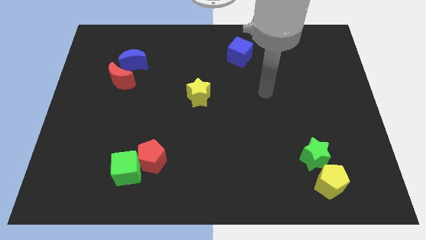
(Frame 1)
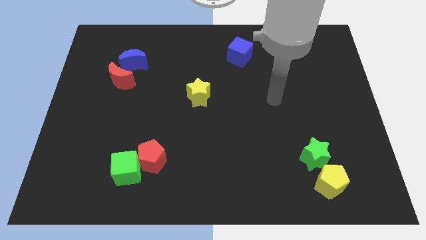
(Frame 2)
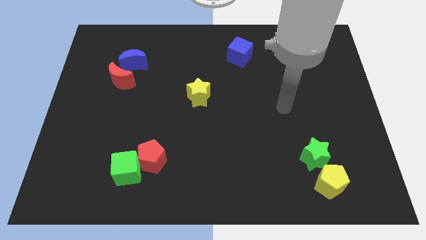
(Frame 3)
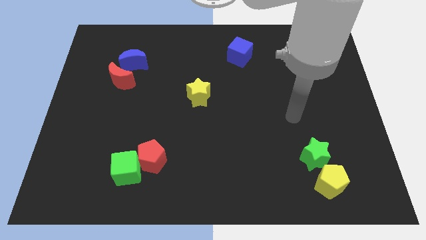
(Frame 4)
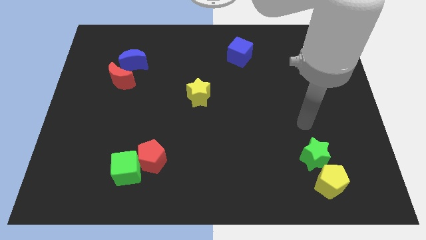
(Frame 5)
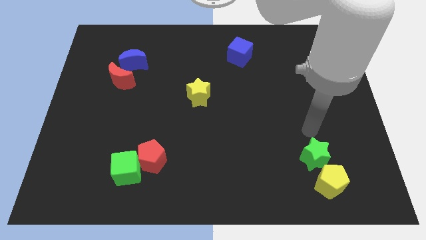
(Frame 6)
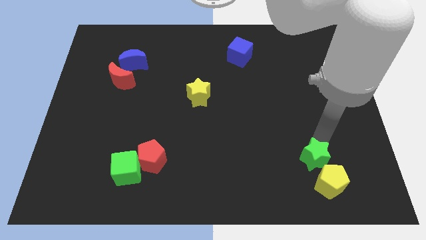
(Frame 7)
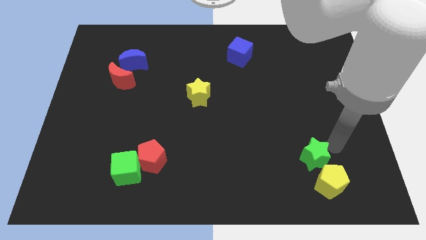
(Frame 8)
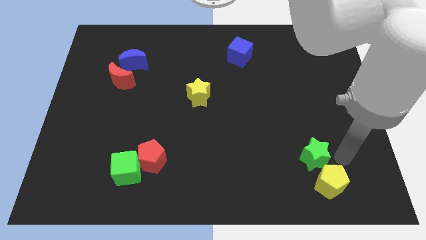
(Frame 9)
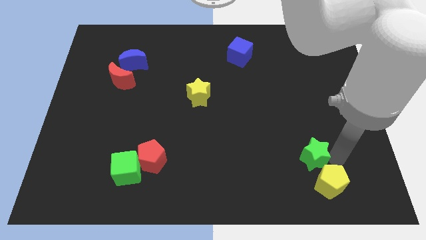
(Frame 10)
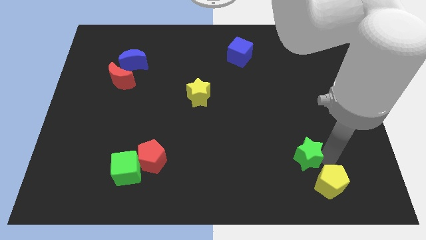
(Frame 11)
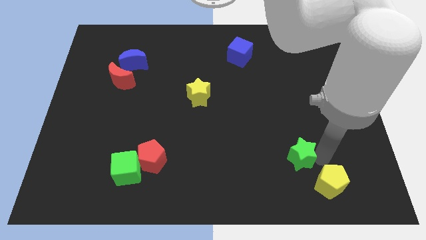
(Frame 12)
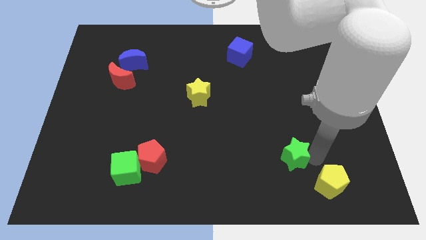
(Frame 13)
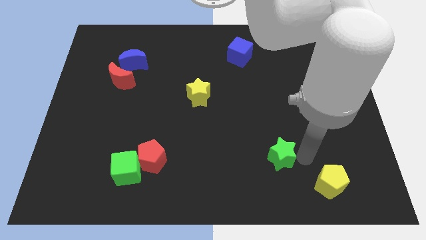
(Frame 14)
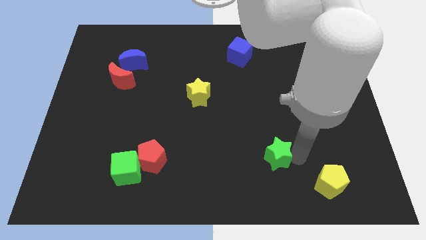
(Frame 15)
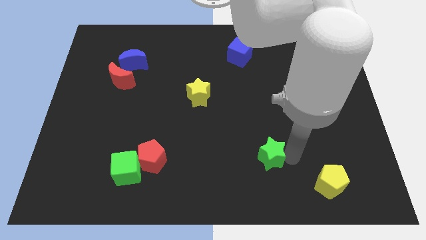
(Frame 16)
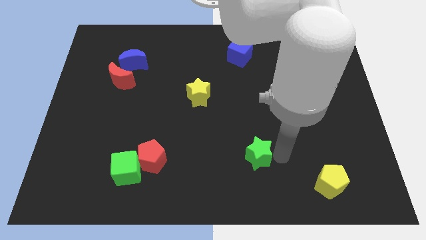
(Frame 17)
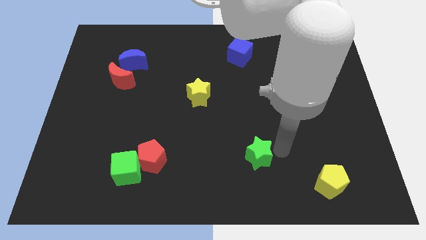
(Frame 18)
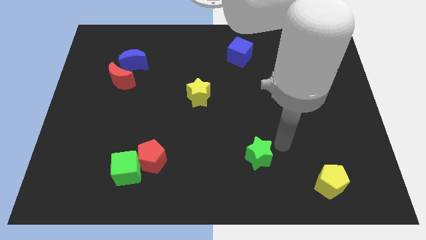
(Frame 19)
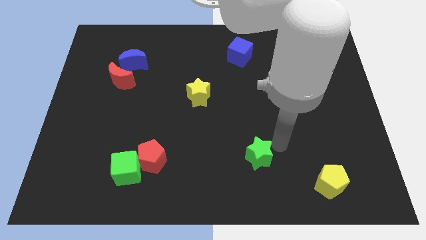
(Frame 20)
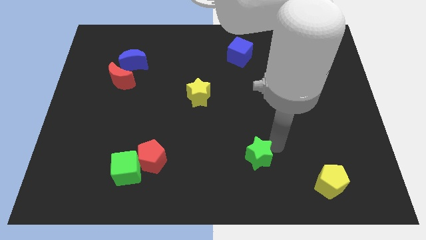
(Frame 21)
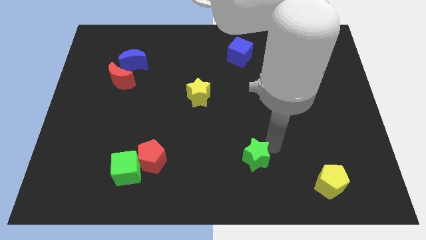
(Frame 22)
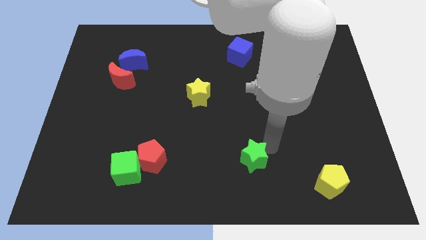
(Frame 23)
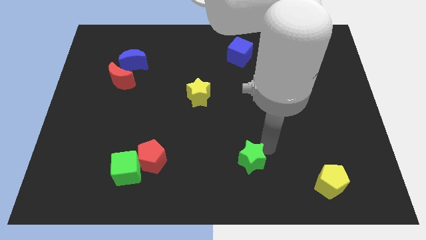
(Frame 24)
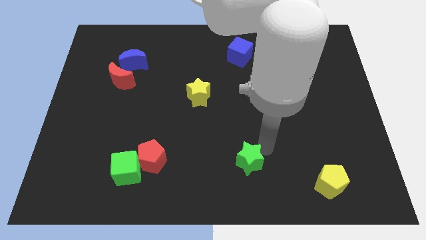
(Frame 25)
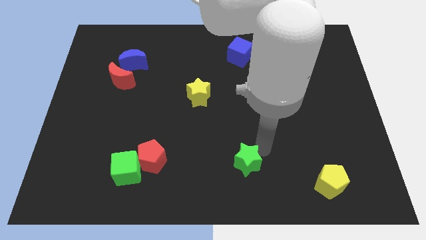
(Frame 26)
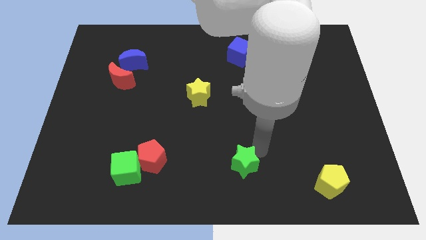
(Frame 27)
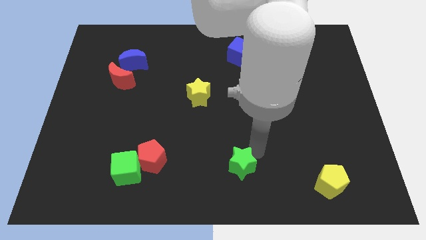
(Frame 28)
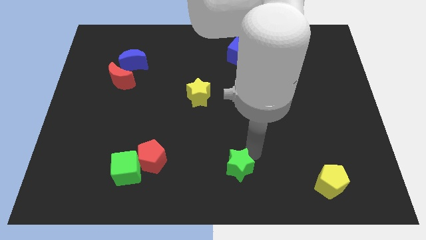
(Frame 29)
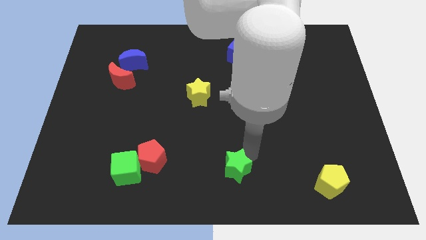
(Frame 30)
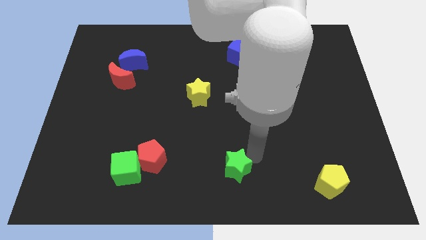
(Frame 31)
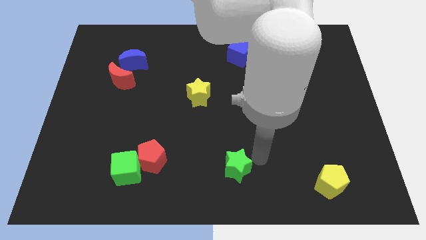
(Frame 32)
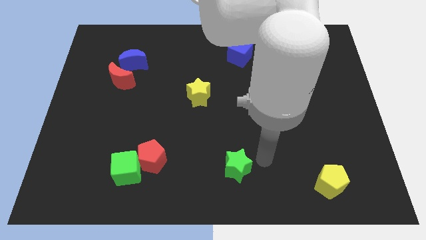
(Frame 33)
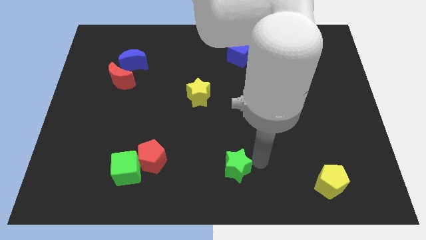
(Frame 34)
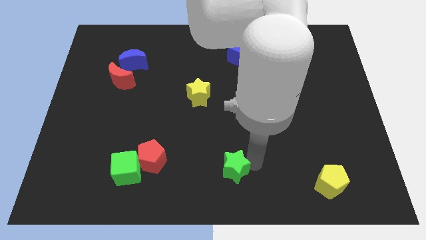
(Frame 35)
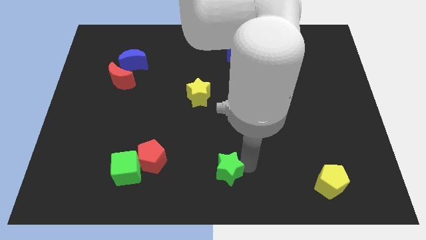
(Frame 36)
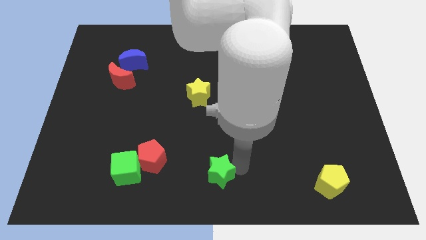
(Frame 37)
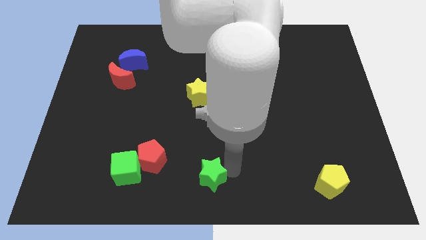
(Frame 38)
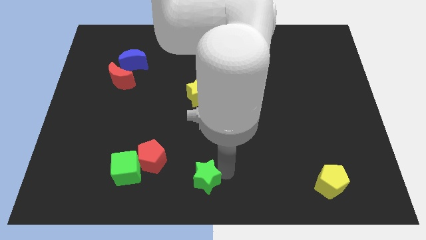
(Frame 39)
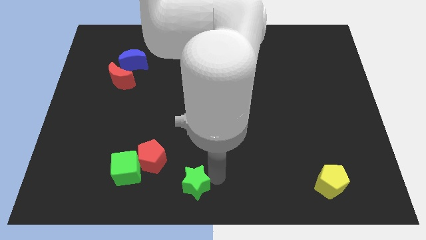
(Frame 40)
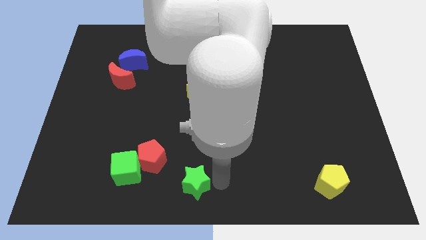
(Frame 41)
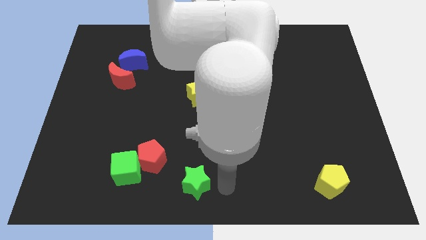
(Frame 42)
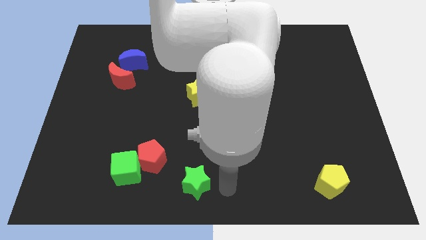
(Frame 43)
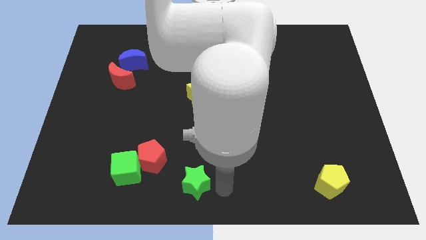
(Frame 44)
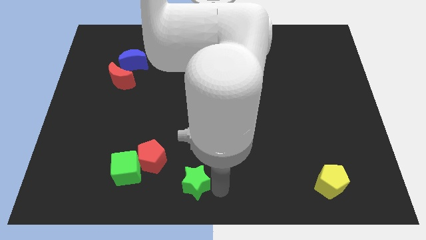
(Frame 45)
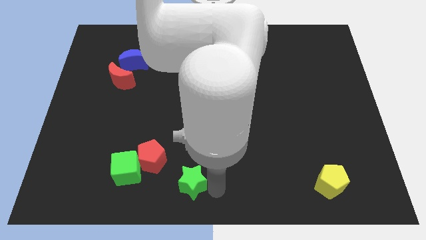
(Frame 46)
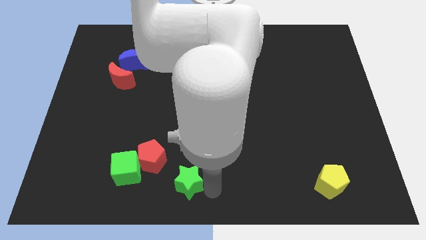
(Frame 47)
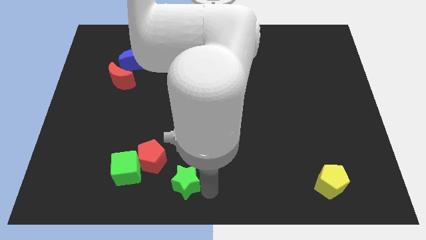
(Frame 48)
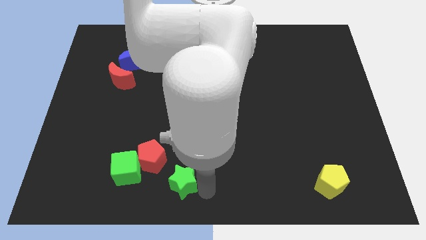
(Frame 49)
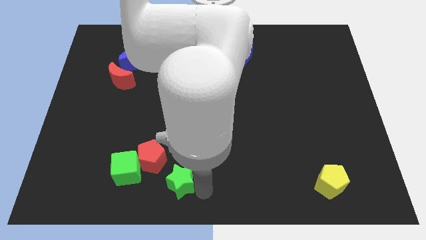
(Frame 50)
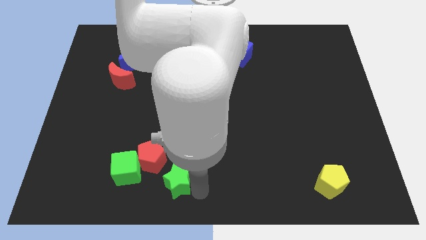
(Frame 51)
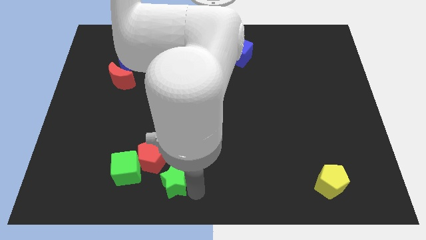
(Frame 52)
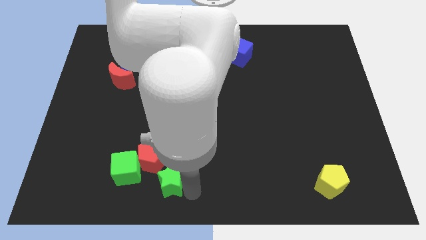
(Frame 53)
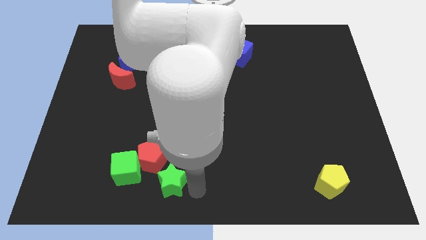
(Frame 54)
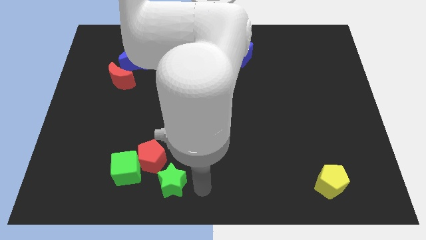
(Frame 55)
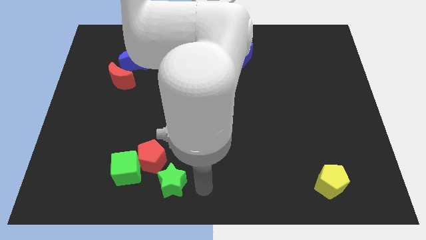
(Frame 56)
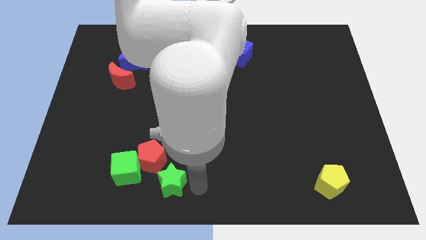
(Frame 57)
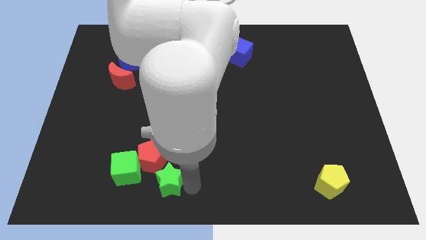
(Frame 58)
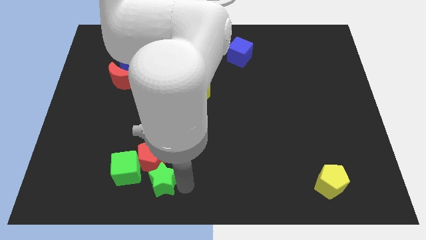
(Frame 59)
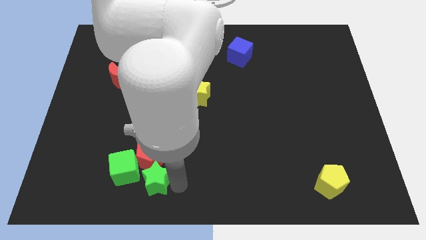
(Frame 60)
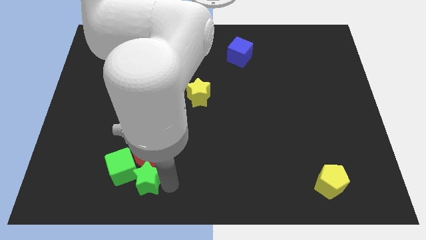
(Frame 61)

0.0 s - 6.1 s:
move the green star next to the green cube

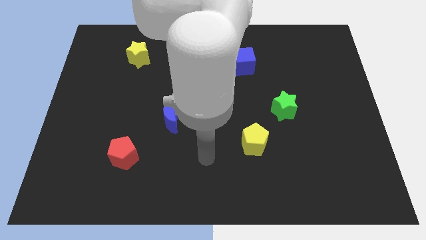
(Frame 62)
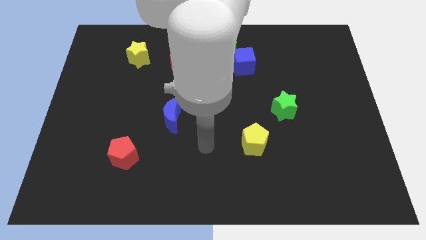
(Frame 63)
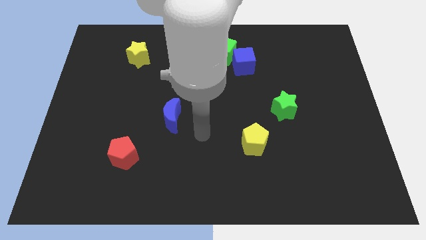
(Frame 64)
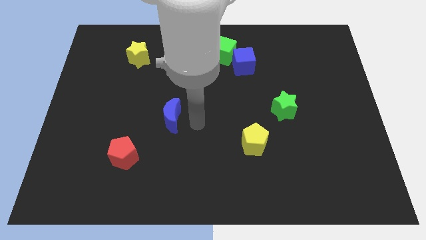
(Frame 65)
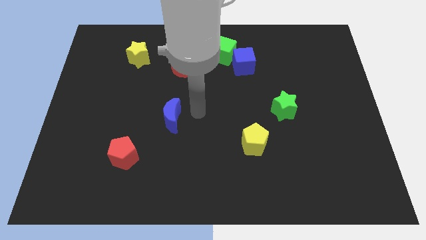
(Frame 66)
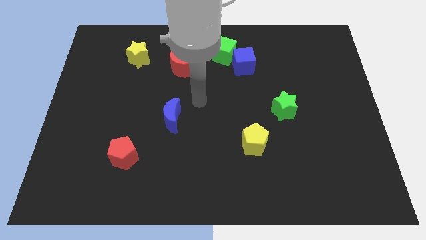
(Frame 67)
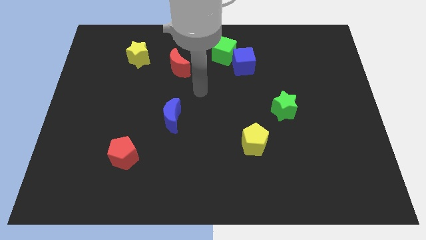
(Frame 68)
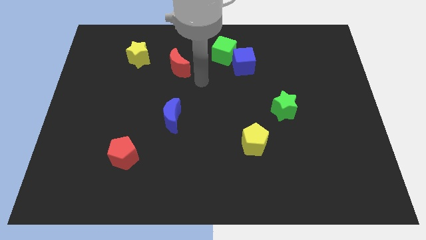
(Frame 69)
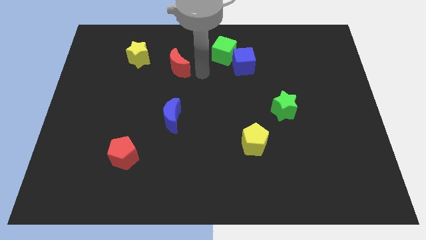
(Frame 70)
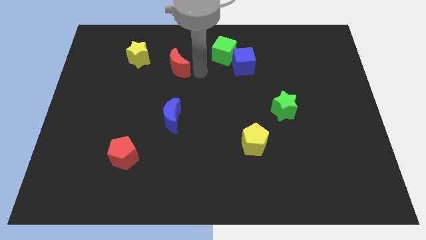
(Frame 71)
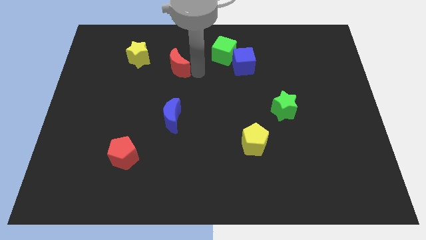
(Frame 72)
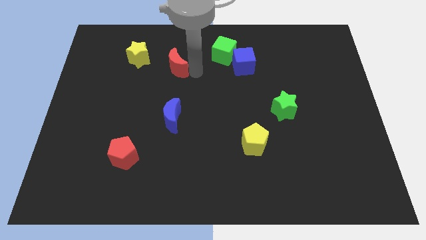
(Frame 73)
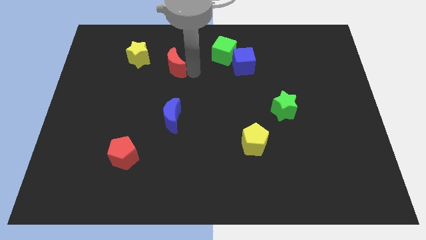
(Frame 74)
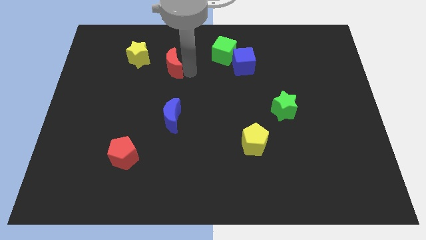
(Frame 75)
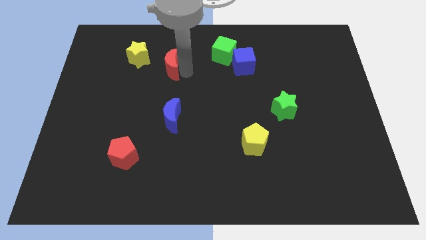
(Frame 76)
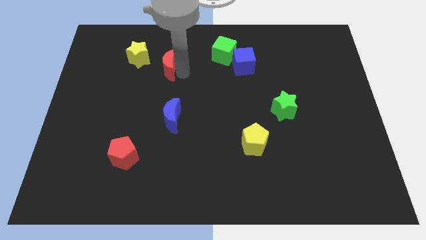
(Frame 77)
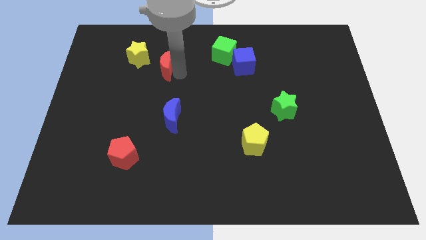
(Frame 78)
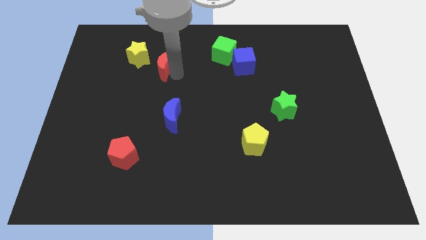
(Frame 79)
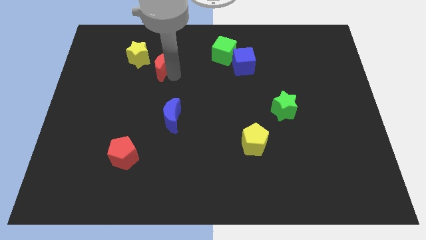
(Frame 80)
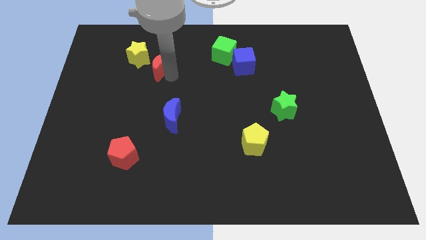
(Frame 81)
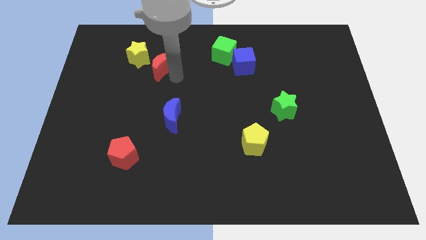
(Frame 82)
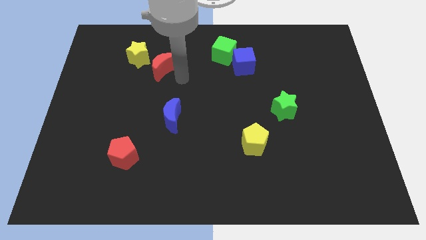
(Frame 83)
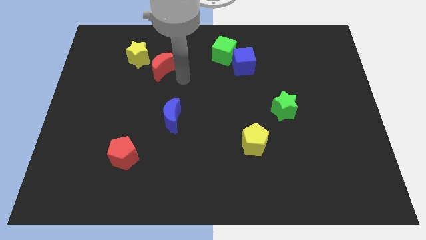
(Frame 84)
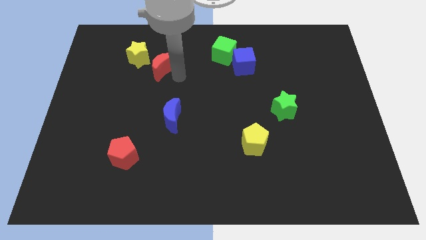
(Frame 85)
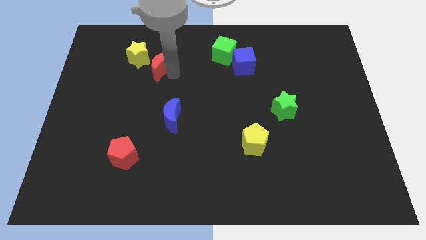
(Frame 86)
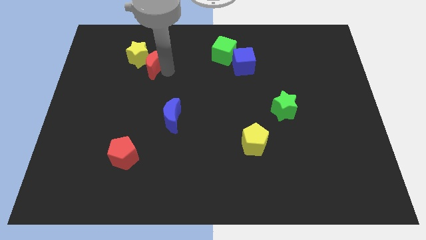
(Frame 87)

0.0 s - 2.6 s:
move the red moon to the yellow star
